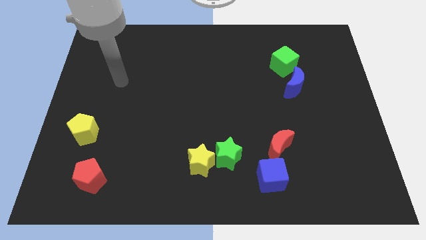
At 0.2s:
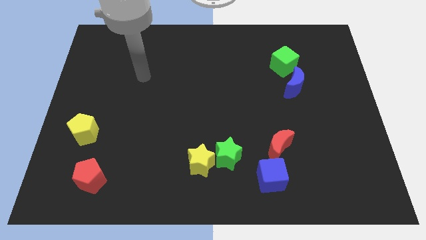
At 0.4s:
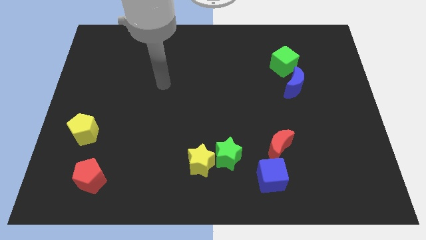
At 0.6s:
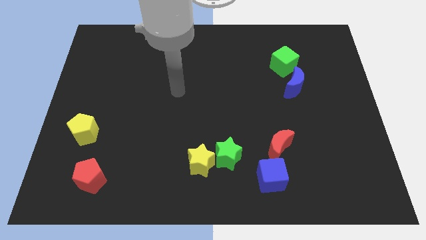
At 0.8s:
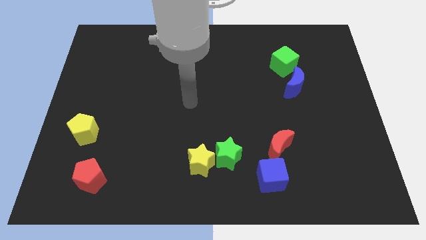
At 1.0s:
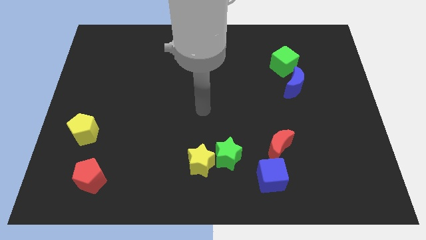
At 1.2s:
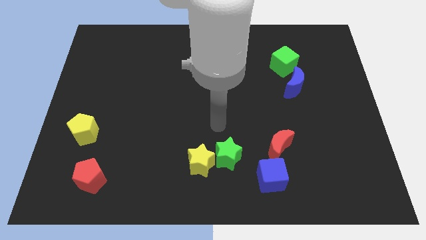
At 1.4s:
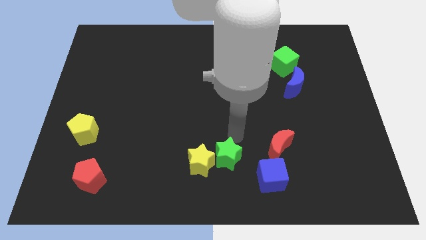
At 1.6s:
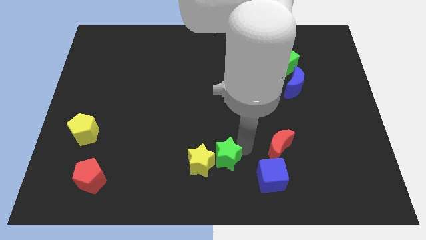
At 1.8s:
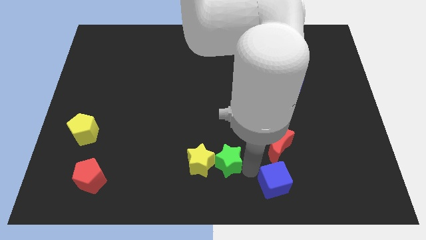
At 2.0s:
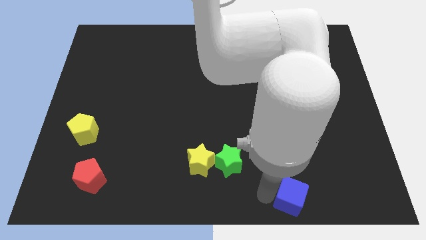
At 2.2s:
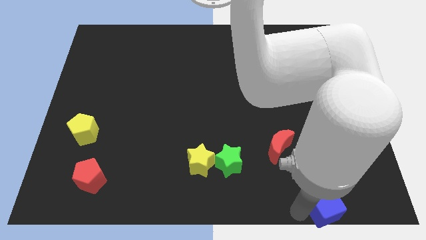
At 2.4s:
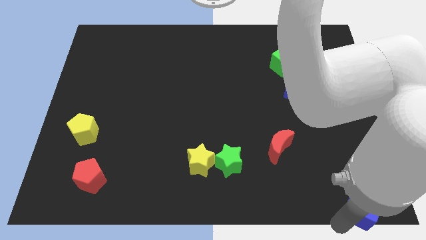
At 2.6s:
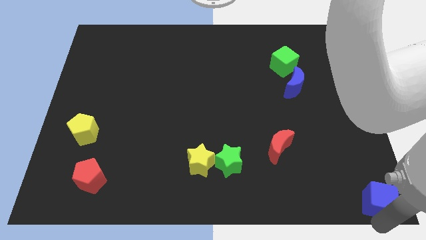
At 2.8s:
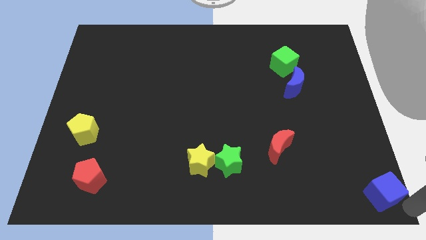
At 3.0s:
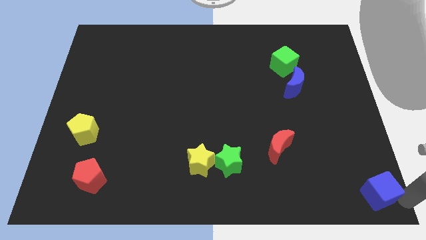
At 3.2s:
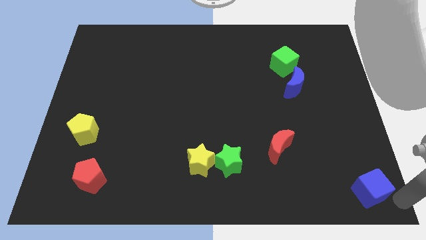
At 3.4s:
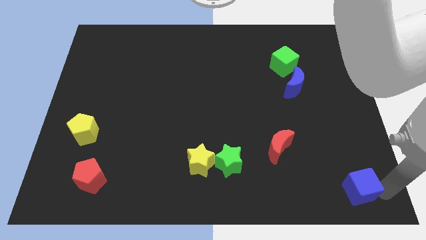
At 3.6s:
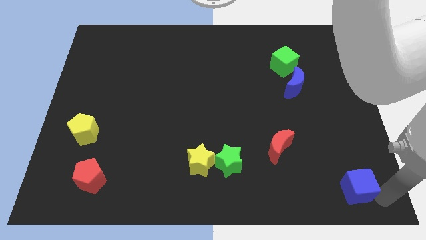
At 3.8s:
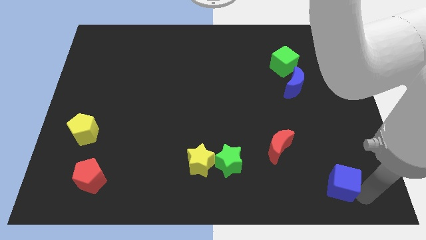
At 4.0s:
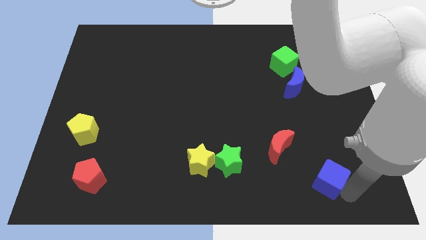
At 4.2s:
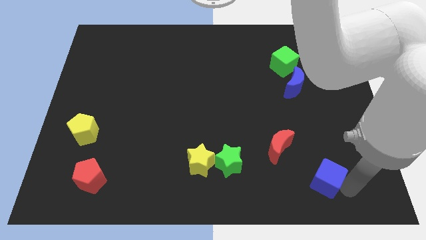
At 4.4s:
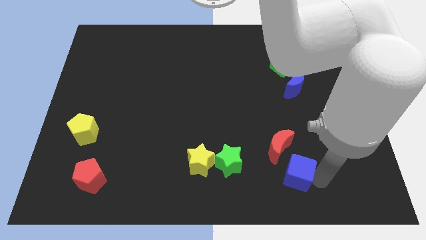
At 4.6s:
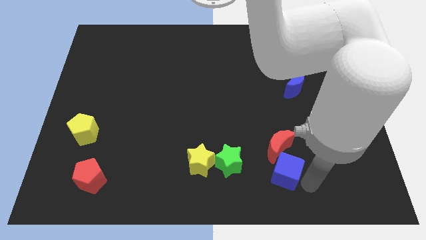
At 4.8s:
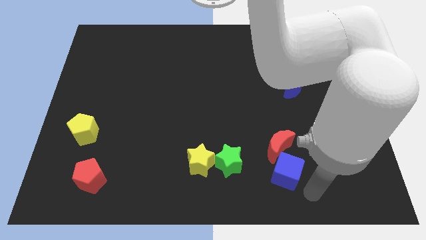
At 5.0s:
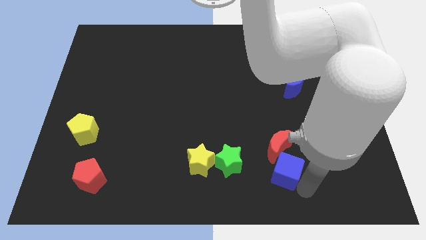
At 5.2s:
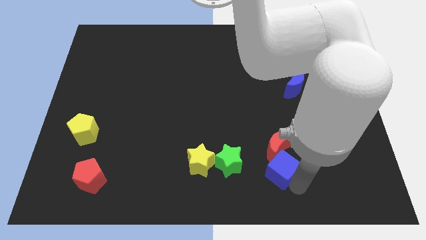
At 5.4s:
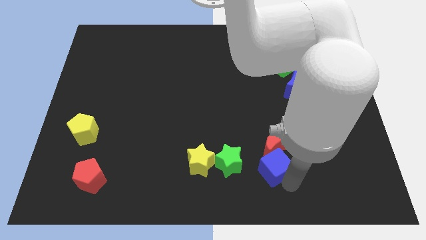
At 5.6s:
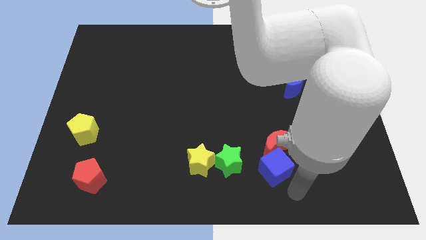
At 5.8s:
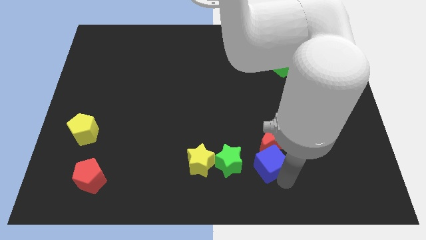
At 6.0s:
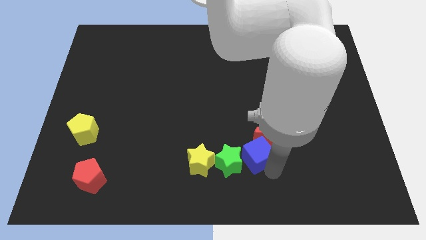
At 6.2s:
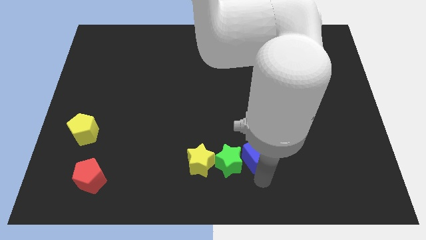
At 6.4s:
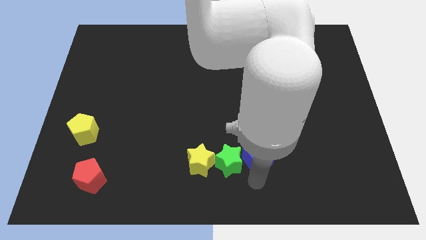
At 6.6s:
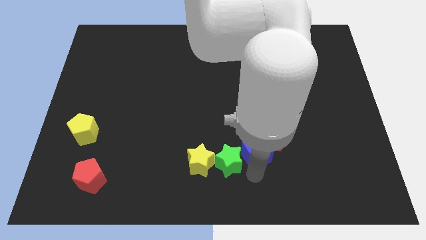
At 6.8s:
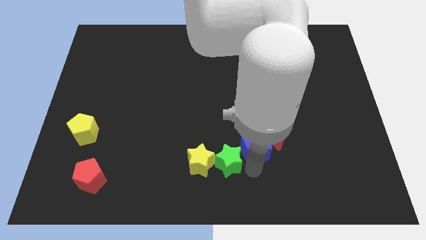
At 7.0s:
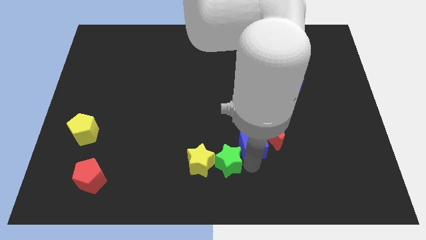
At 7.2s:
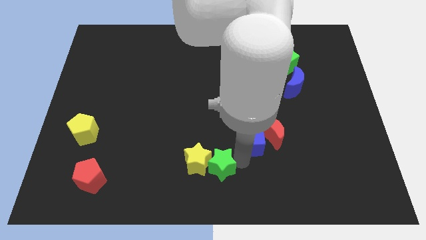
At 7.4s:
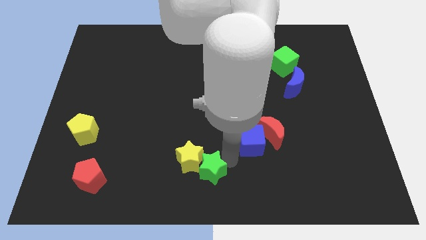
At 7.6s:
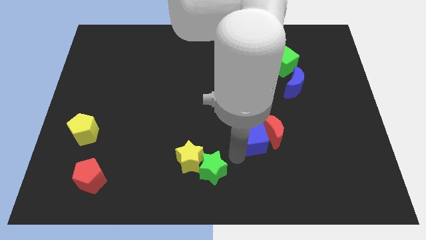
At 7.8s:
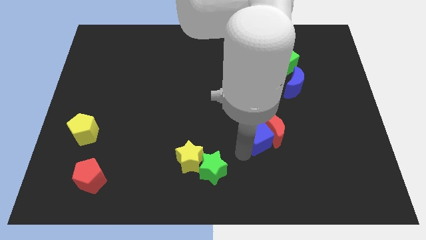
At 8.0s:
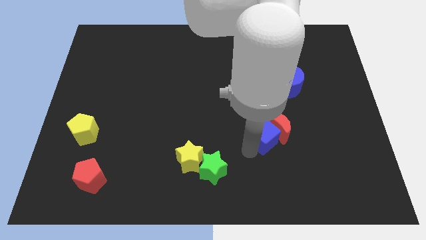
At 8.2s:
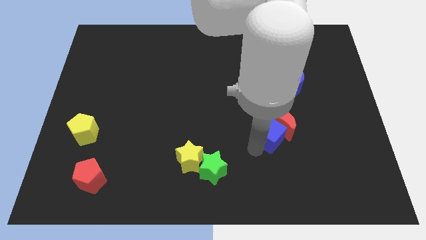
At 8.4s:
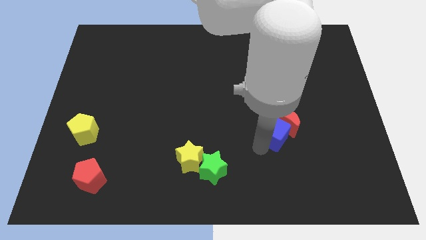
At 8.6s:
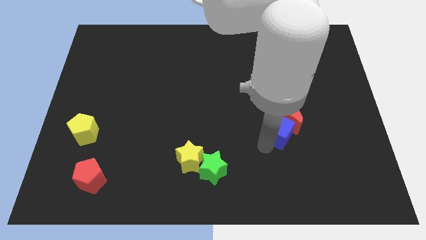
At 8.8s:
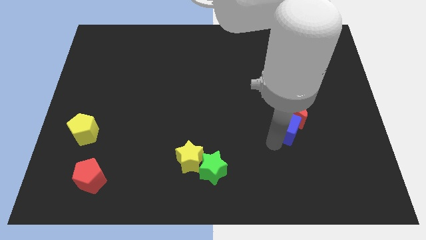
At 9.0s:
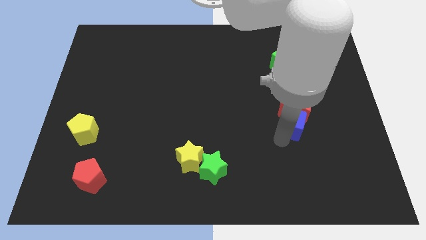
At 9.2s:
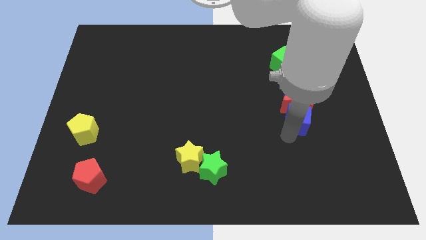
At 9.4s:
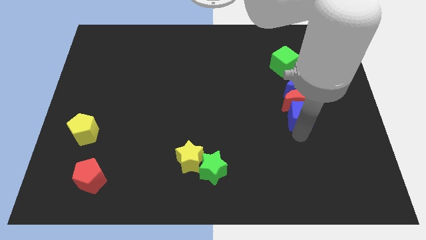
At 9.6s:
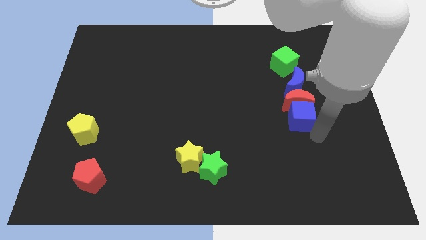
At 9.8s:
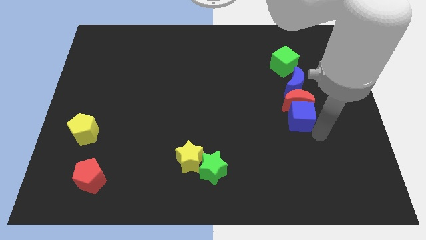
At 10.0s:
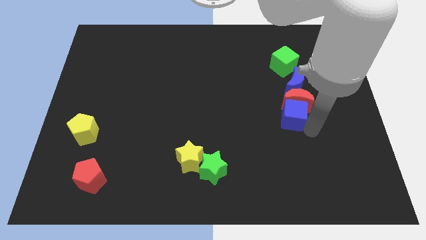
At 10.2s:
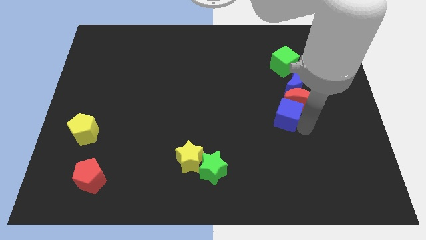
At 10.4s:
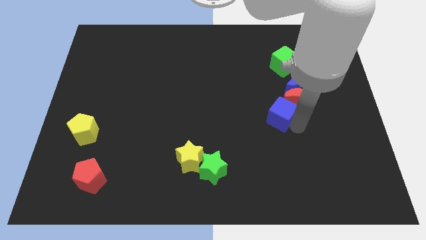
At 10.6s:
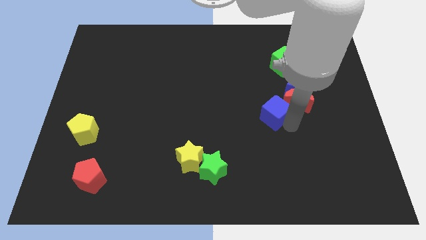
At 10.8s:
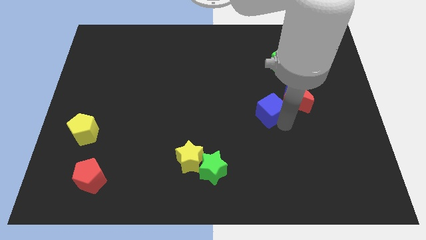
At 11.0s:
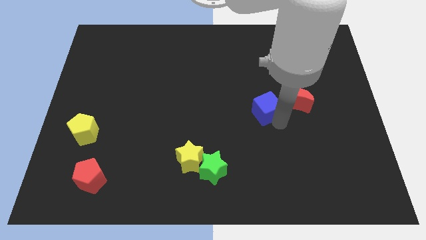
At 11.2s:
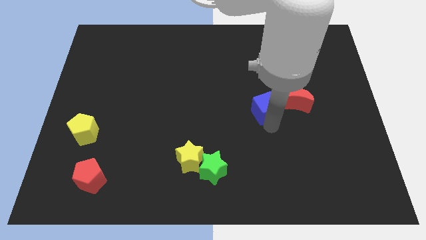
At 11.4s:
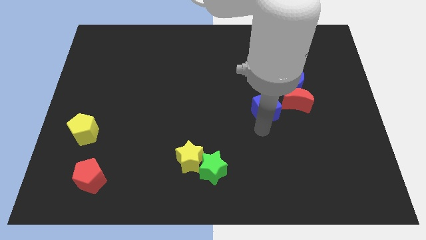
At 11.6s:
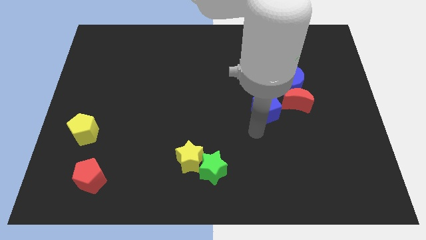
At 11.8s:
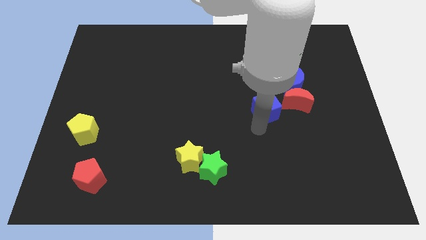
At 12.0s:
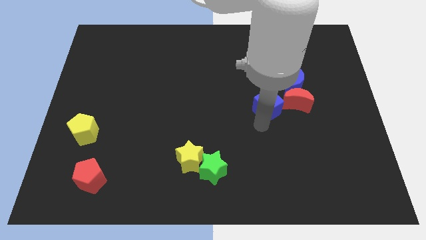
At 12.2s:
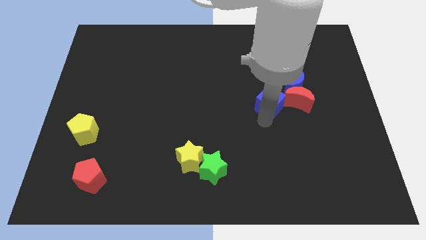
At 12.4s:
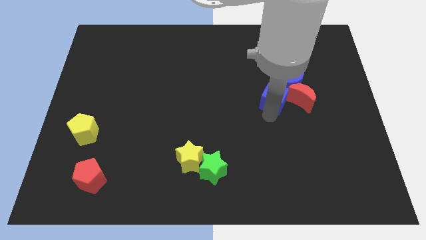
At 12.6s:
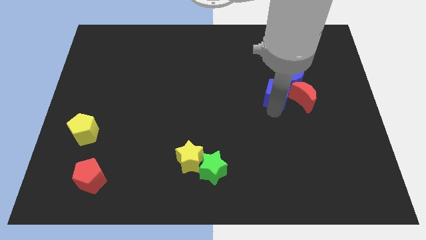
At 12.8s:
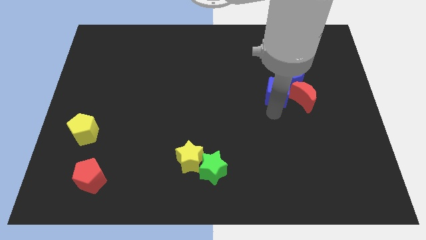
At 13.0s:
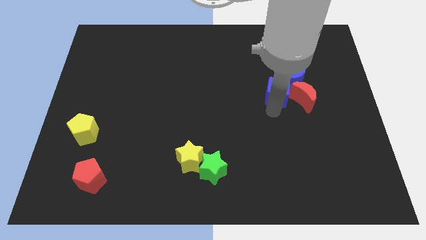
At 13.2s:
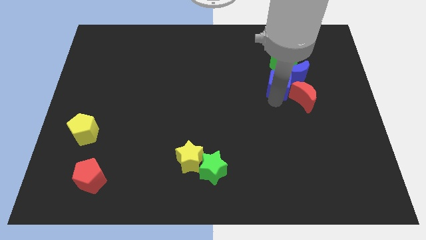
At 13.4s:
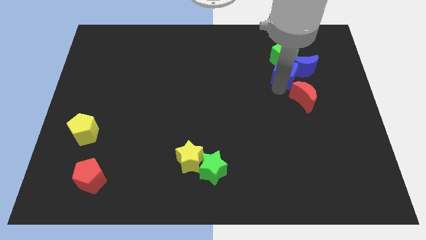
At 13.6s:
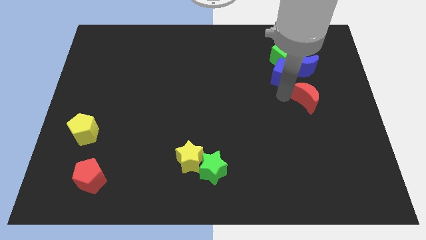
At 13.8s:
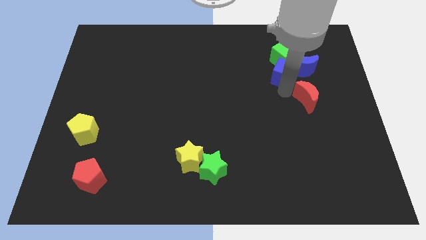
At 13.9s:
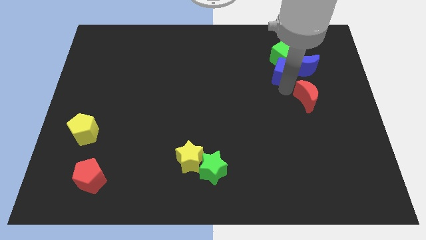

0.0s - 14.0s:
slide the blue cube next to the green cube

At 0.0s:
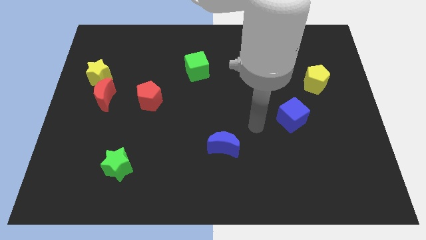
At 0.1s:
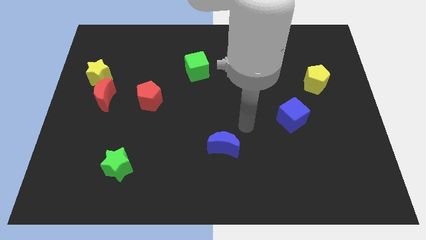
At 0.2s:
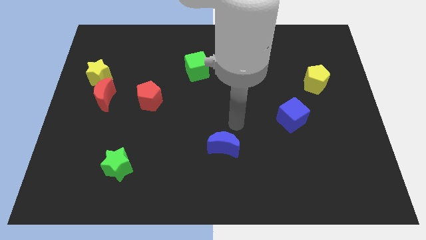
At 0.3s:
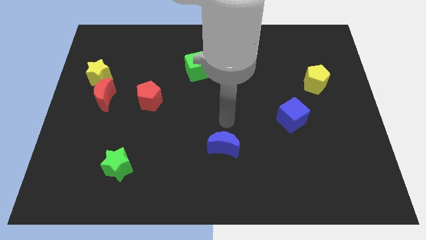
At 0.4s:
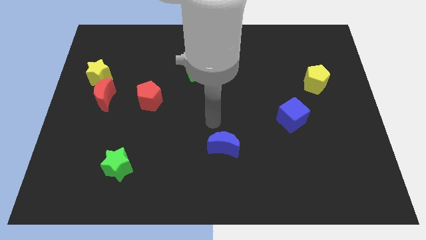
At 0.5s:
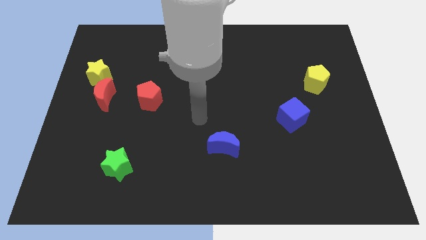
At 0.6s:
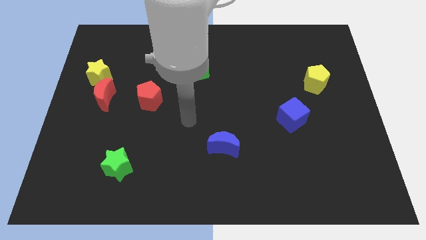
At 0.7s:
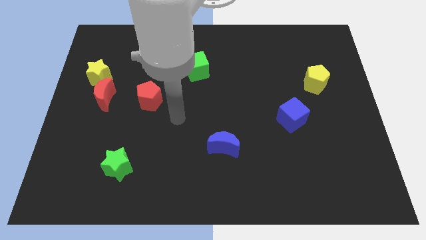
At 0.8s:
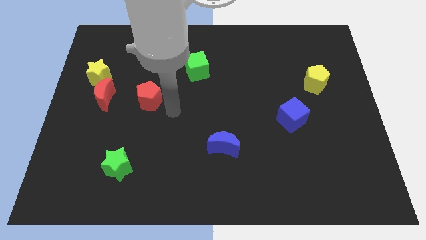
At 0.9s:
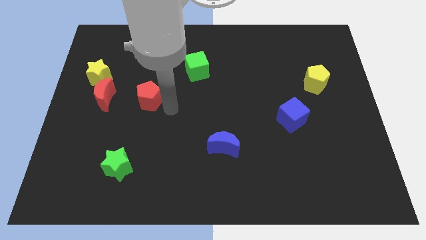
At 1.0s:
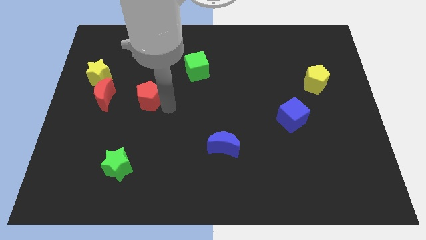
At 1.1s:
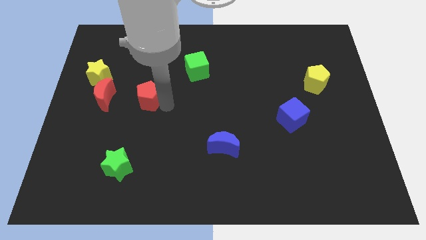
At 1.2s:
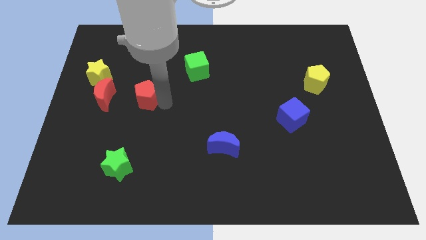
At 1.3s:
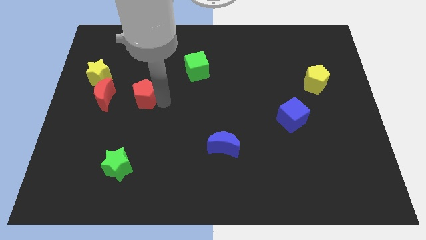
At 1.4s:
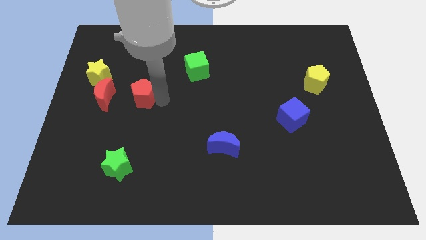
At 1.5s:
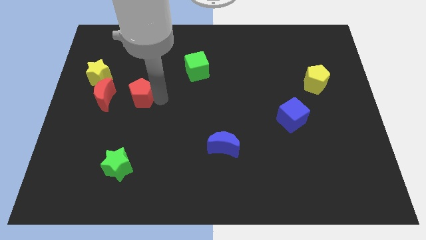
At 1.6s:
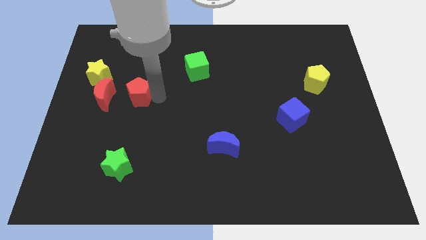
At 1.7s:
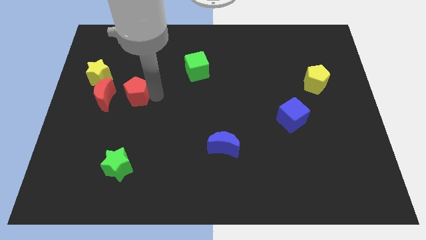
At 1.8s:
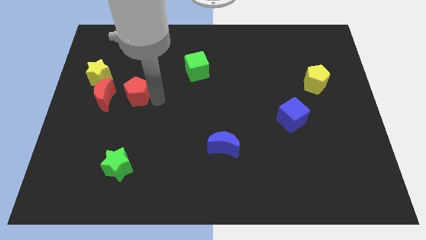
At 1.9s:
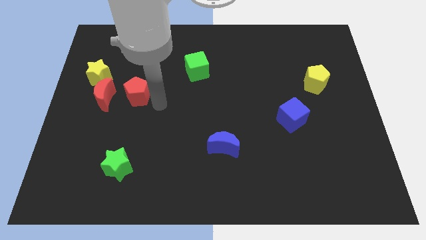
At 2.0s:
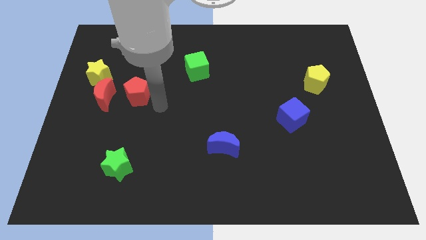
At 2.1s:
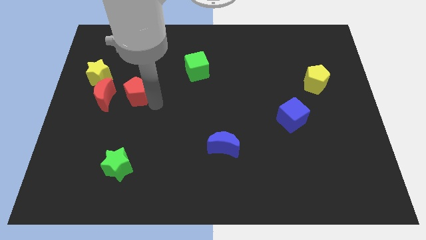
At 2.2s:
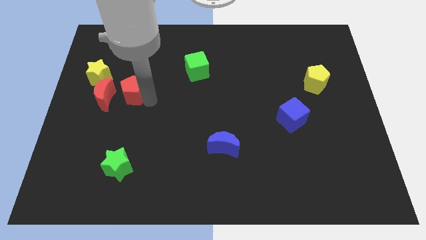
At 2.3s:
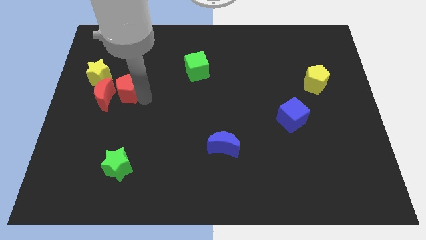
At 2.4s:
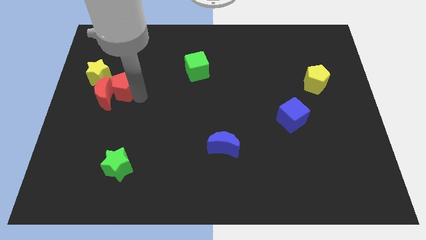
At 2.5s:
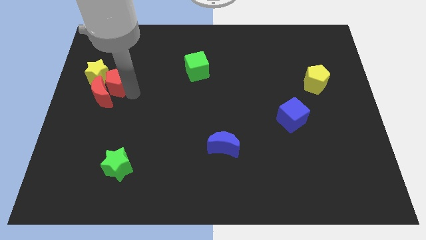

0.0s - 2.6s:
slide the red pentagon towards the yellow star
